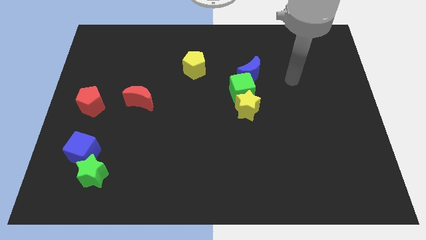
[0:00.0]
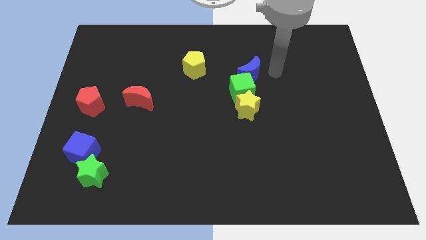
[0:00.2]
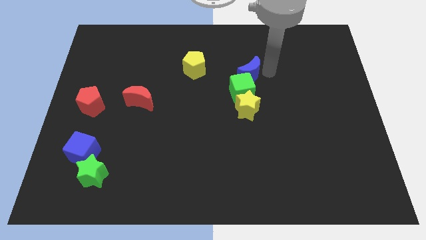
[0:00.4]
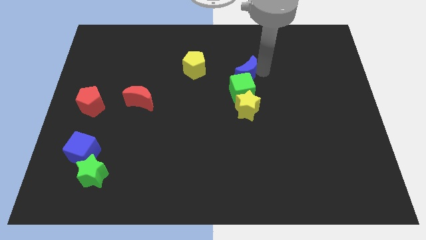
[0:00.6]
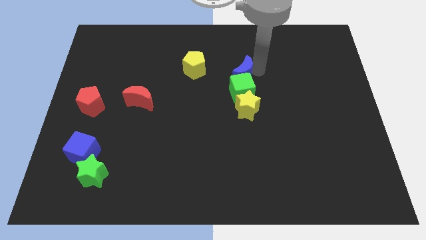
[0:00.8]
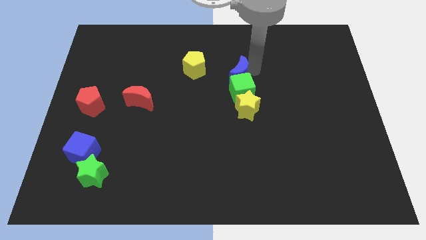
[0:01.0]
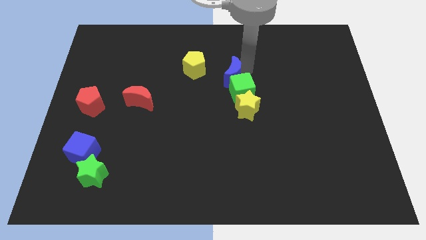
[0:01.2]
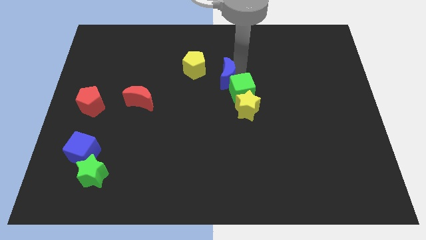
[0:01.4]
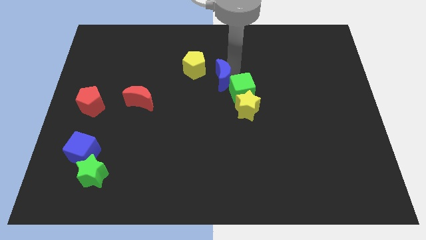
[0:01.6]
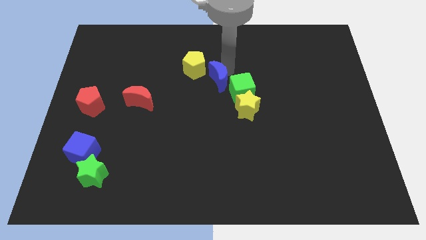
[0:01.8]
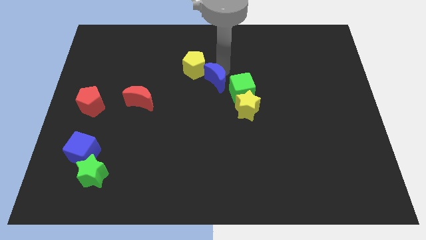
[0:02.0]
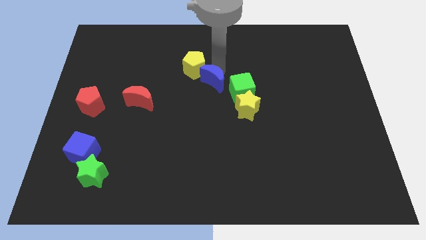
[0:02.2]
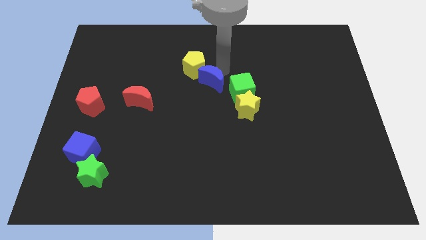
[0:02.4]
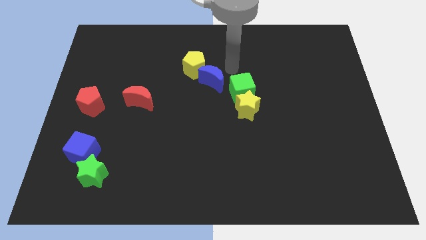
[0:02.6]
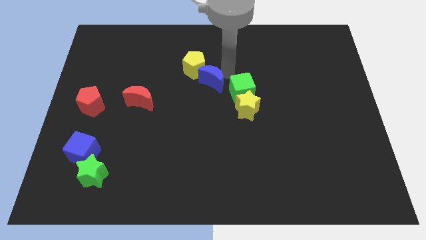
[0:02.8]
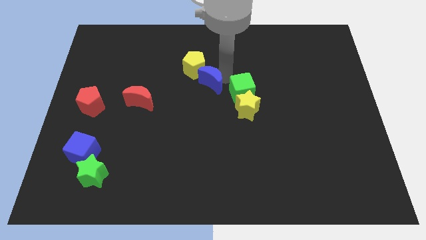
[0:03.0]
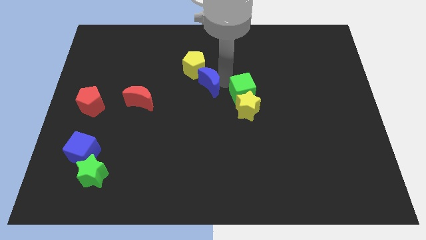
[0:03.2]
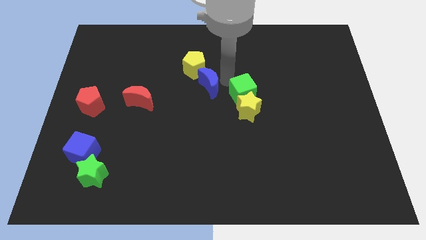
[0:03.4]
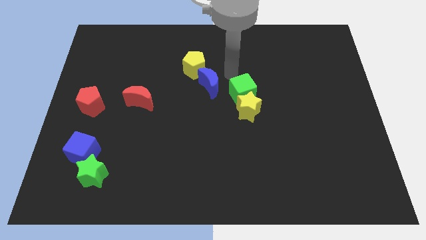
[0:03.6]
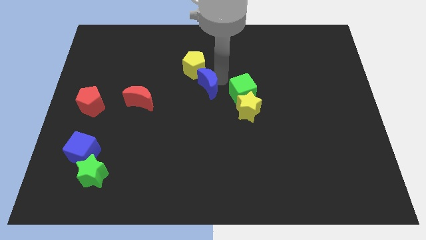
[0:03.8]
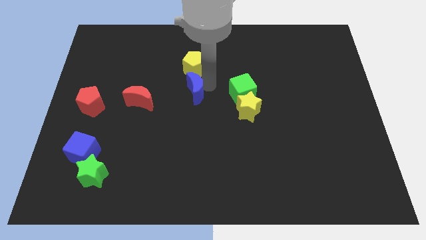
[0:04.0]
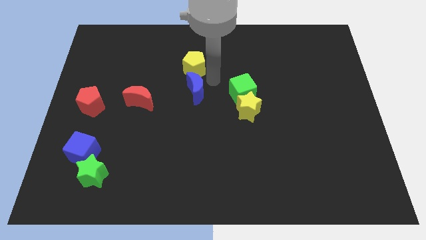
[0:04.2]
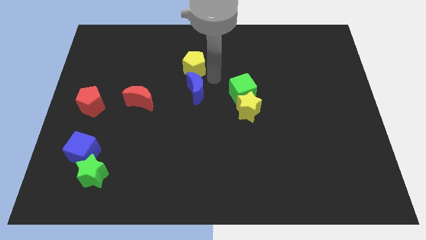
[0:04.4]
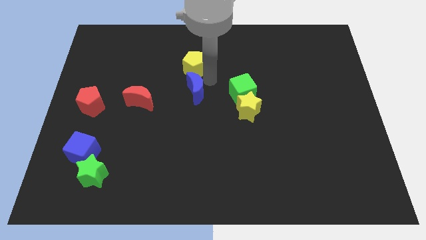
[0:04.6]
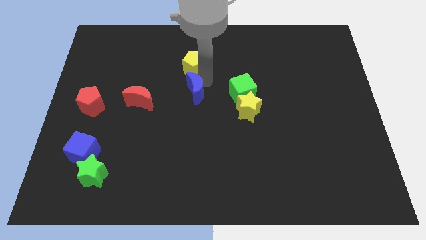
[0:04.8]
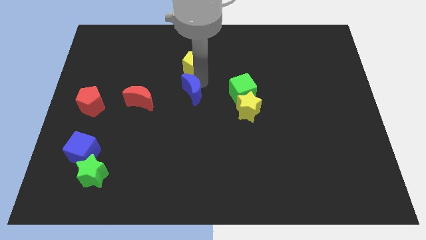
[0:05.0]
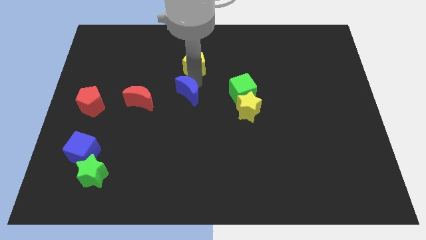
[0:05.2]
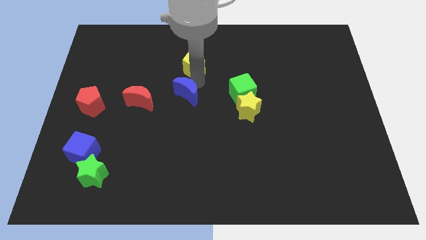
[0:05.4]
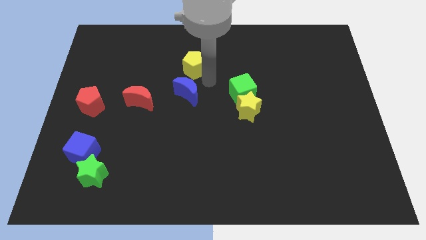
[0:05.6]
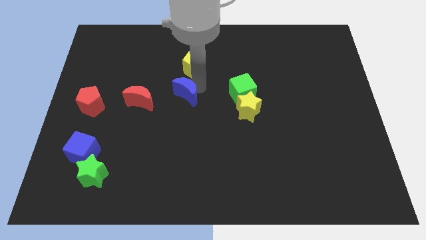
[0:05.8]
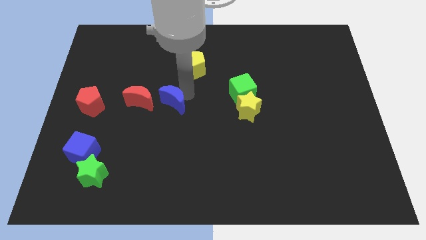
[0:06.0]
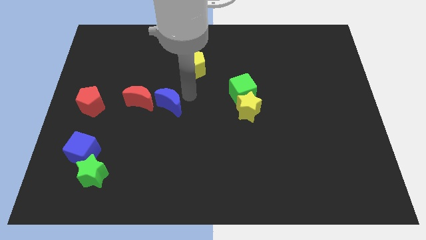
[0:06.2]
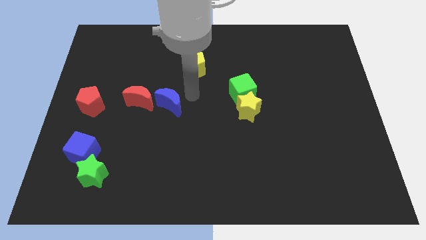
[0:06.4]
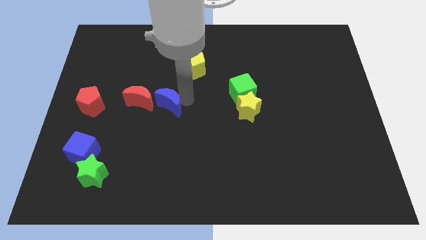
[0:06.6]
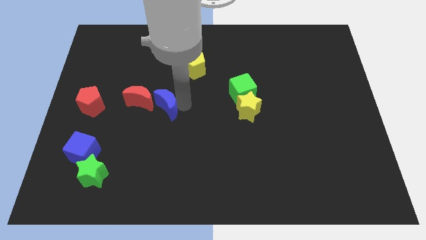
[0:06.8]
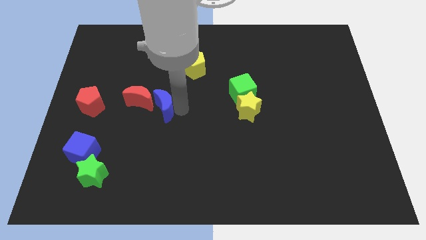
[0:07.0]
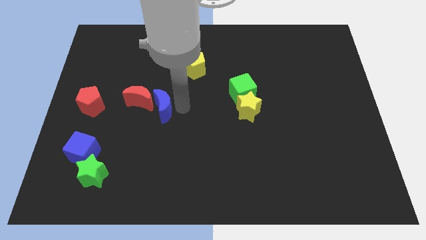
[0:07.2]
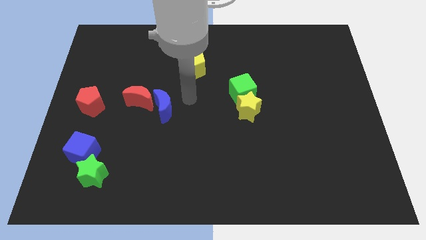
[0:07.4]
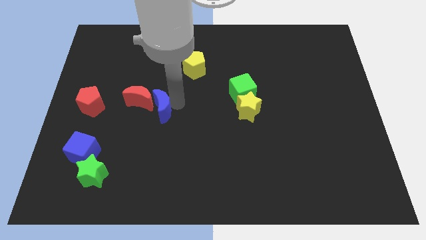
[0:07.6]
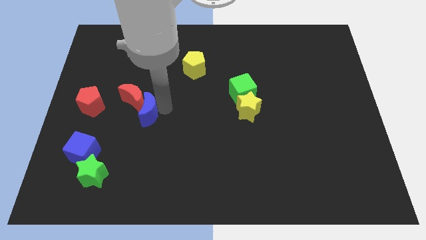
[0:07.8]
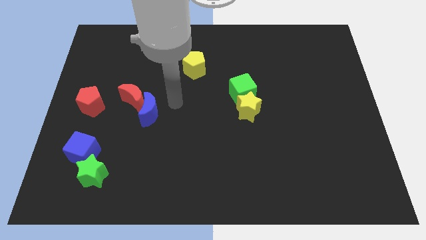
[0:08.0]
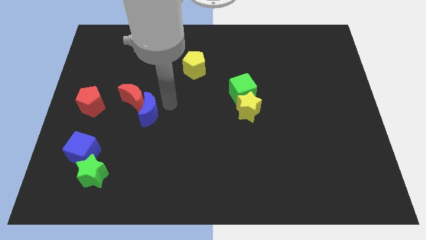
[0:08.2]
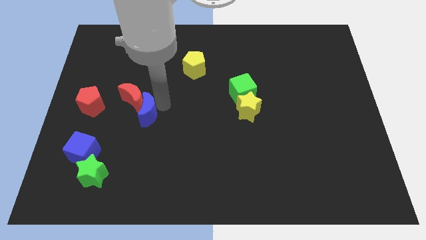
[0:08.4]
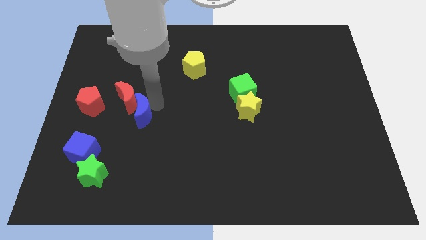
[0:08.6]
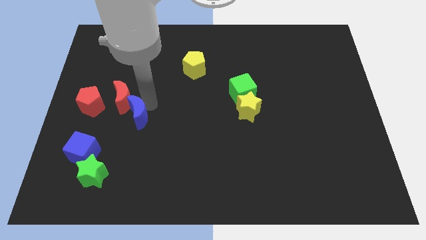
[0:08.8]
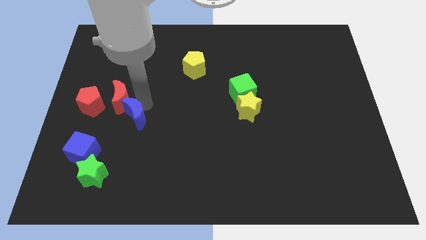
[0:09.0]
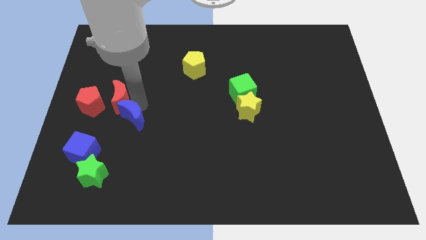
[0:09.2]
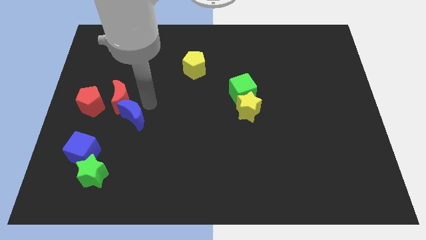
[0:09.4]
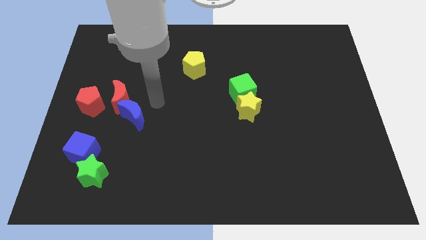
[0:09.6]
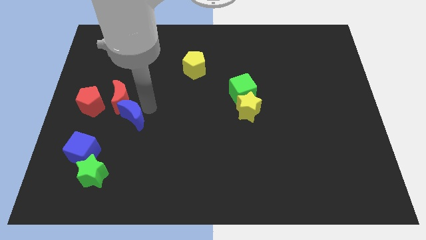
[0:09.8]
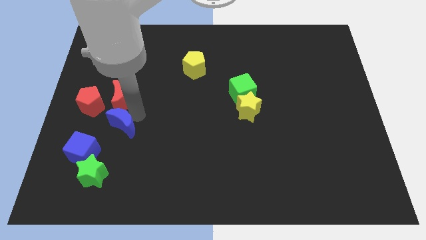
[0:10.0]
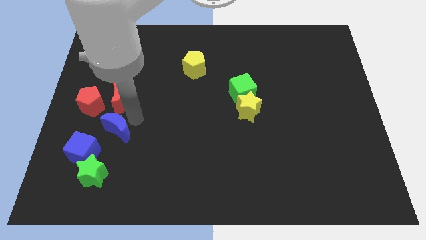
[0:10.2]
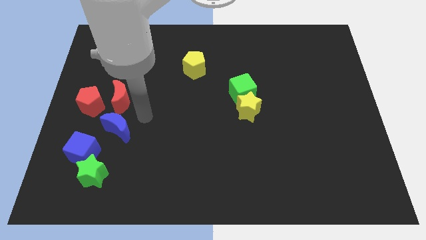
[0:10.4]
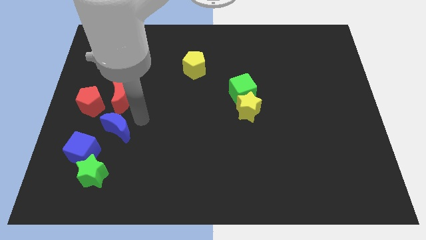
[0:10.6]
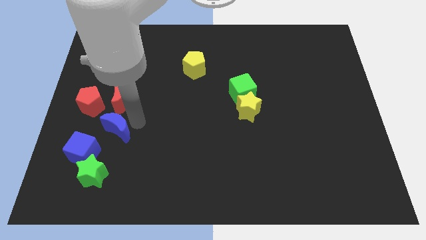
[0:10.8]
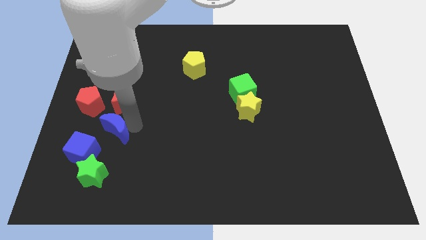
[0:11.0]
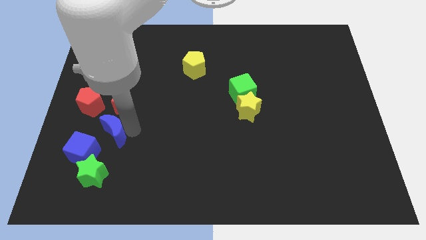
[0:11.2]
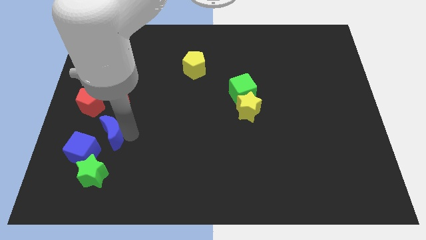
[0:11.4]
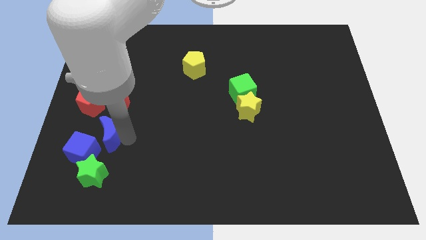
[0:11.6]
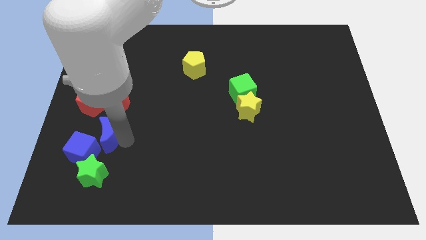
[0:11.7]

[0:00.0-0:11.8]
slide the blue moon towards the blue cube
